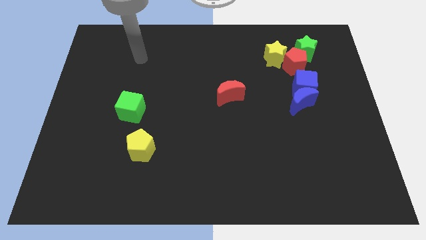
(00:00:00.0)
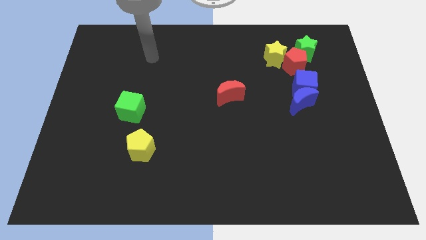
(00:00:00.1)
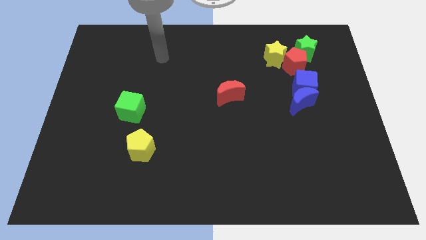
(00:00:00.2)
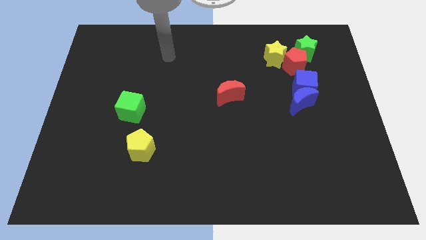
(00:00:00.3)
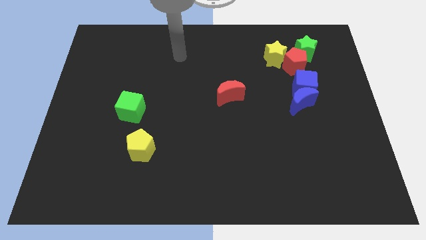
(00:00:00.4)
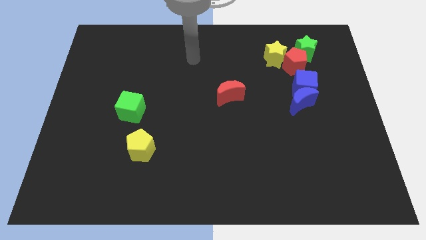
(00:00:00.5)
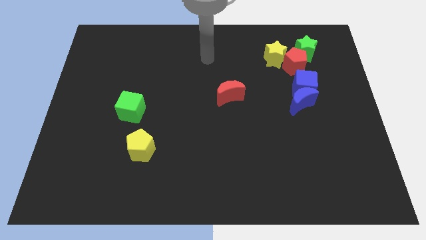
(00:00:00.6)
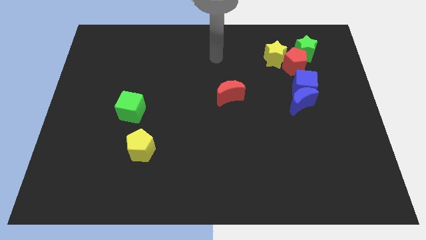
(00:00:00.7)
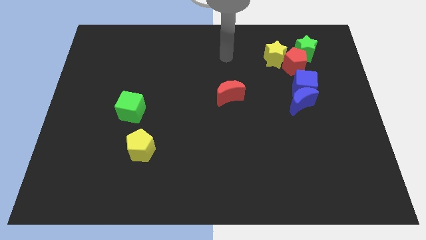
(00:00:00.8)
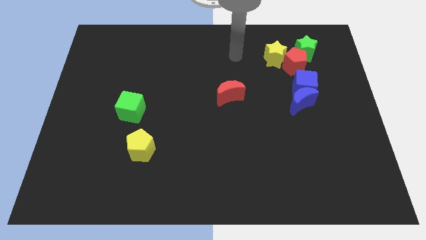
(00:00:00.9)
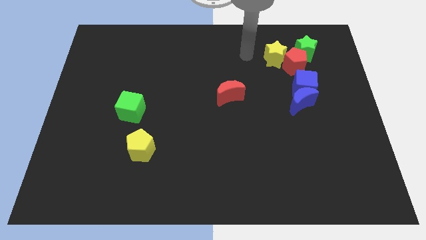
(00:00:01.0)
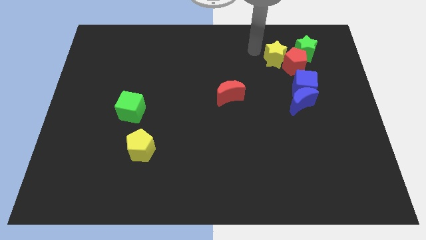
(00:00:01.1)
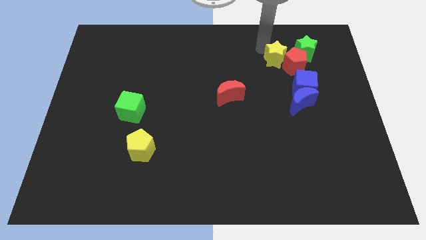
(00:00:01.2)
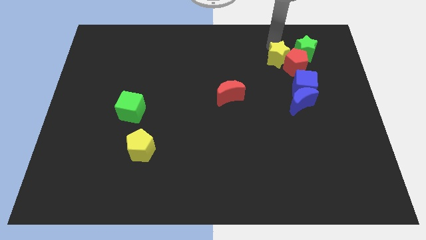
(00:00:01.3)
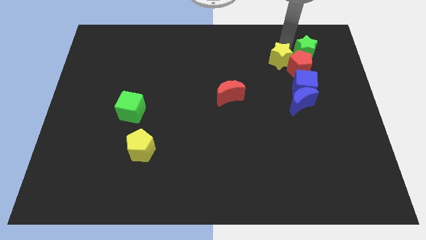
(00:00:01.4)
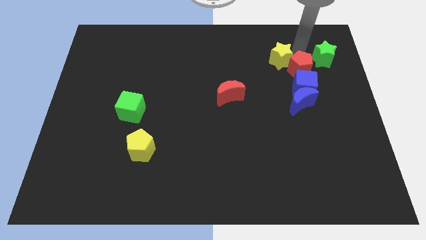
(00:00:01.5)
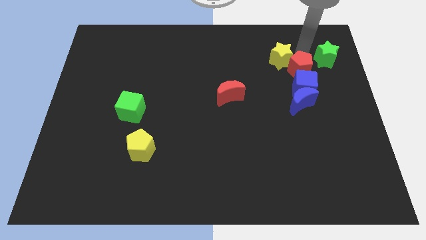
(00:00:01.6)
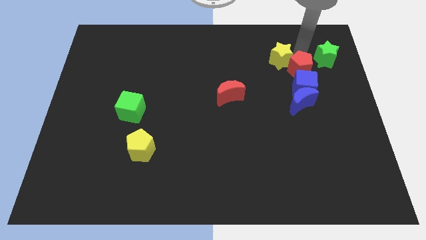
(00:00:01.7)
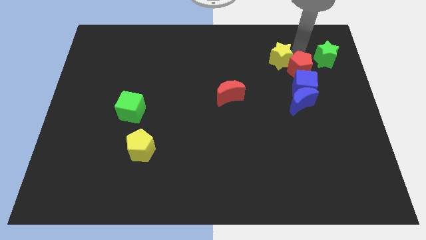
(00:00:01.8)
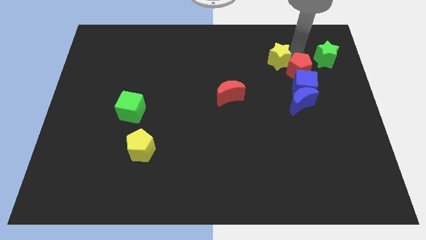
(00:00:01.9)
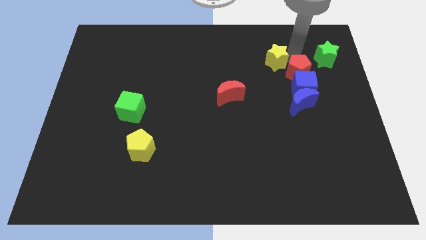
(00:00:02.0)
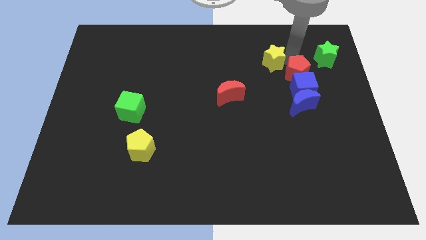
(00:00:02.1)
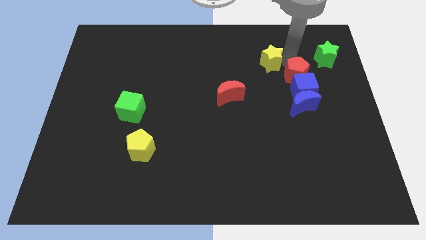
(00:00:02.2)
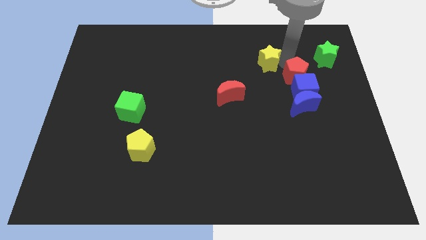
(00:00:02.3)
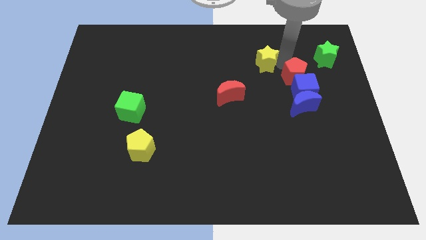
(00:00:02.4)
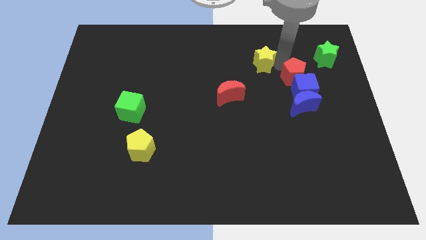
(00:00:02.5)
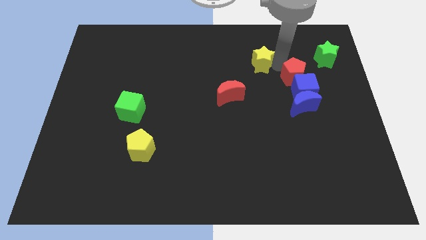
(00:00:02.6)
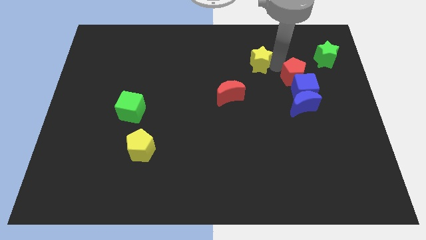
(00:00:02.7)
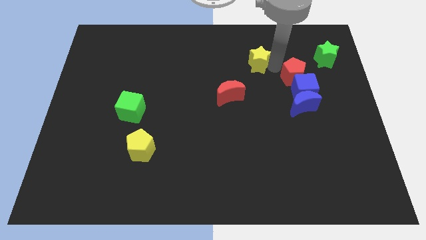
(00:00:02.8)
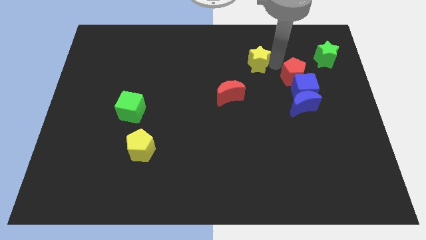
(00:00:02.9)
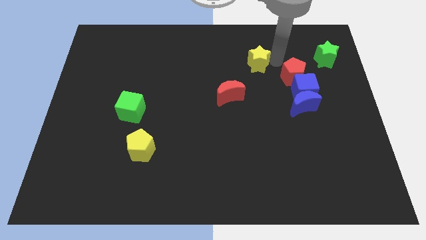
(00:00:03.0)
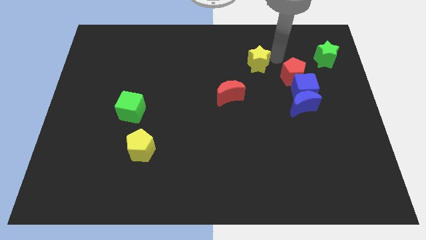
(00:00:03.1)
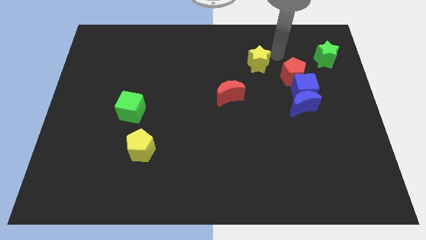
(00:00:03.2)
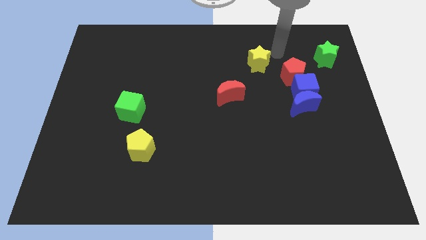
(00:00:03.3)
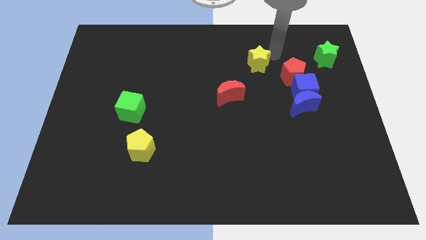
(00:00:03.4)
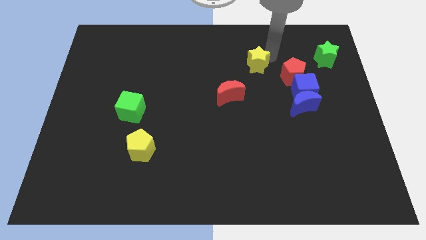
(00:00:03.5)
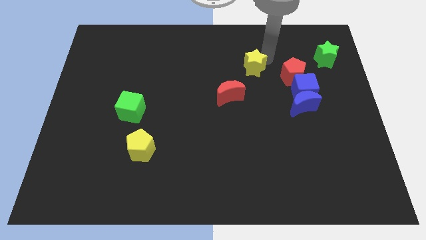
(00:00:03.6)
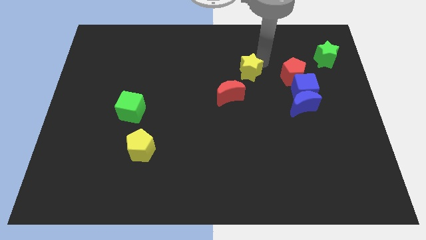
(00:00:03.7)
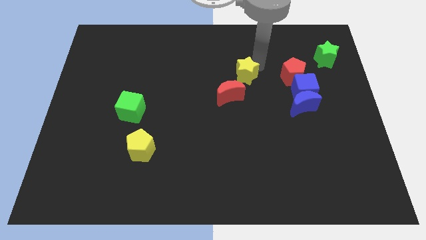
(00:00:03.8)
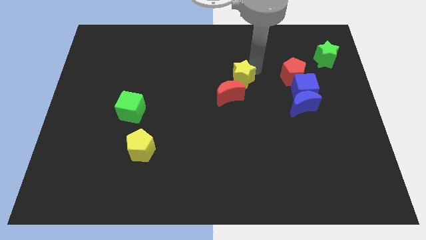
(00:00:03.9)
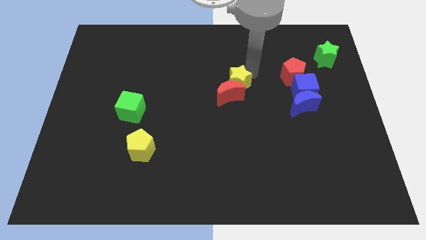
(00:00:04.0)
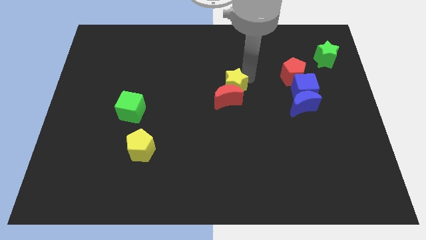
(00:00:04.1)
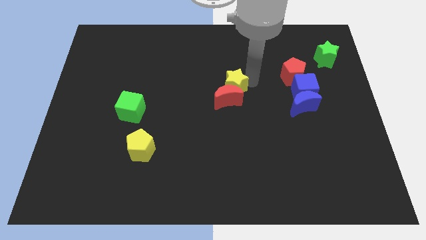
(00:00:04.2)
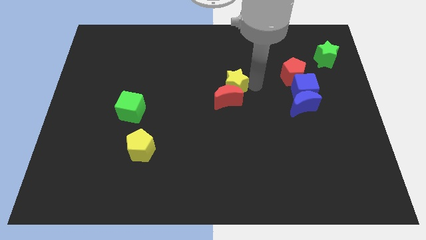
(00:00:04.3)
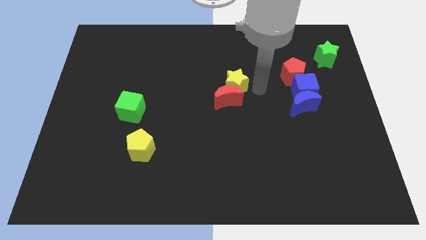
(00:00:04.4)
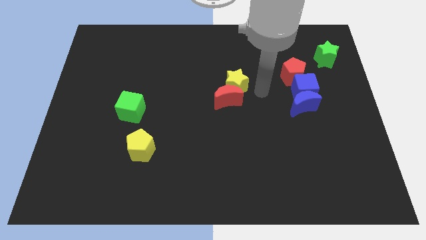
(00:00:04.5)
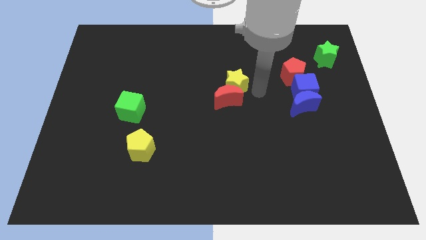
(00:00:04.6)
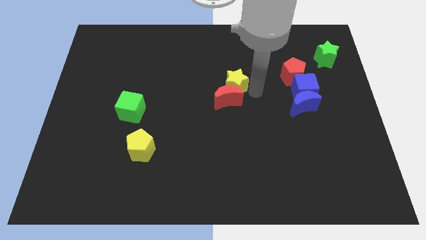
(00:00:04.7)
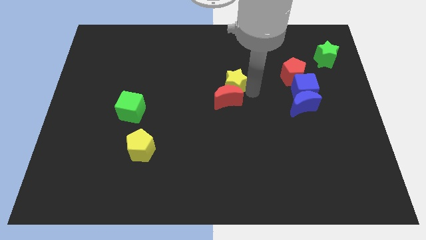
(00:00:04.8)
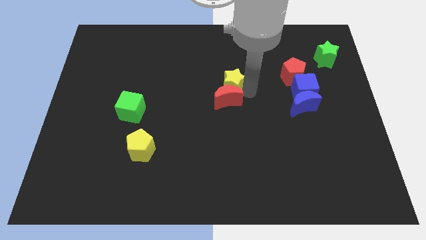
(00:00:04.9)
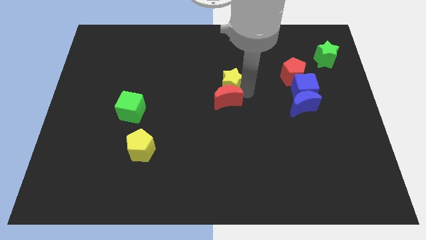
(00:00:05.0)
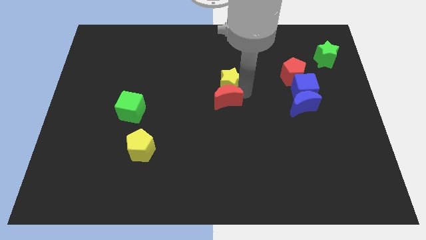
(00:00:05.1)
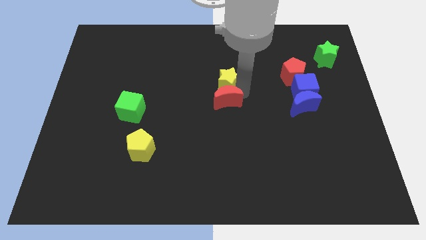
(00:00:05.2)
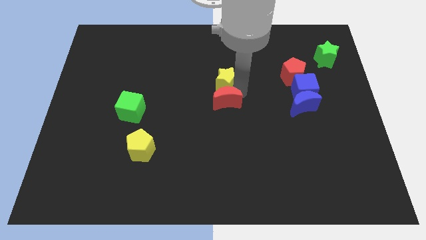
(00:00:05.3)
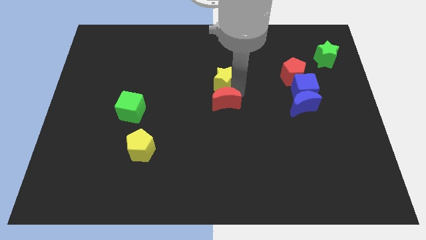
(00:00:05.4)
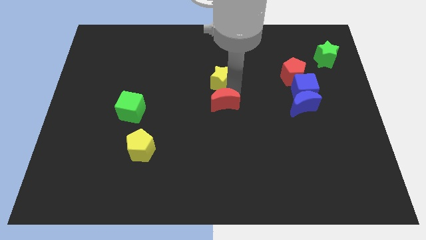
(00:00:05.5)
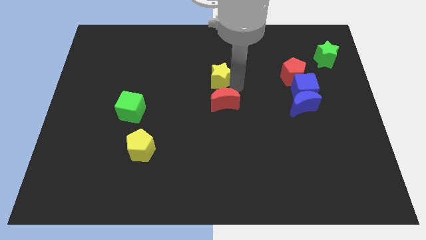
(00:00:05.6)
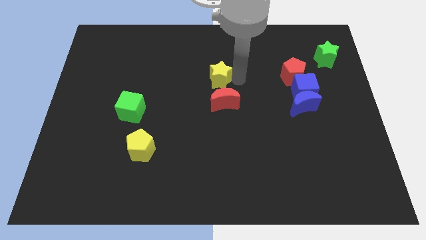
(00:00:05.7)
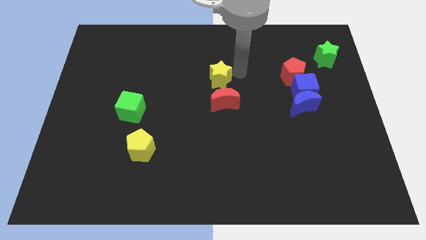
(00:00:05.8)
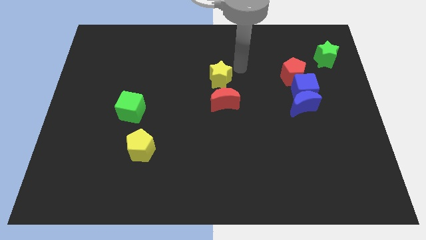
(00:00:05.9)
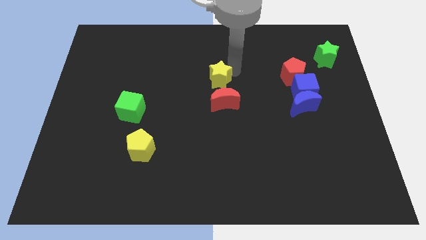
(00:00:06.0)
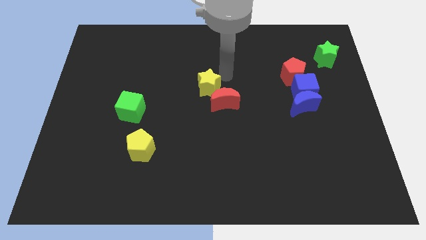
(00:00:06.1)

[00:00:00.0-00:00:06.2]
slide the yellow star to the left of the red moon
